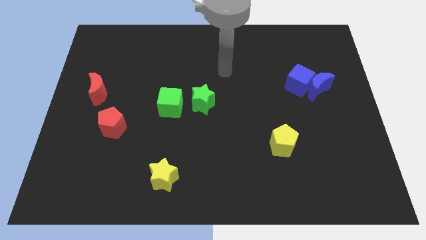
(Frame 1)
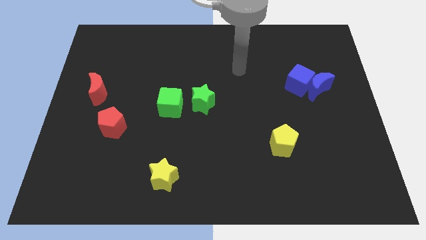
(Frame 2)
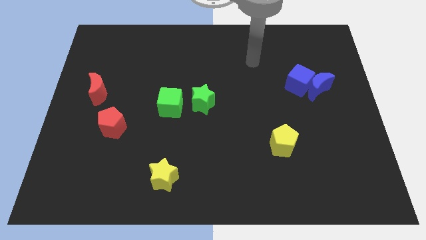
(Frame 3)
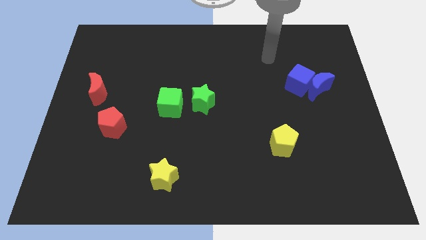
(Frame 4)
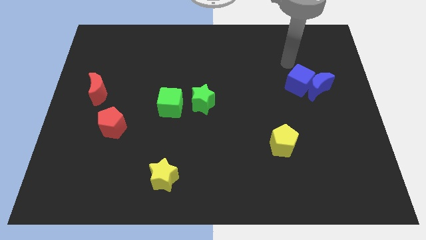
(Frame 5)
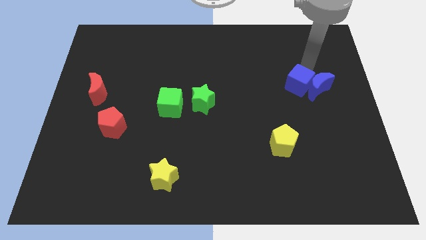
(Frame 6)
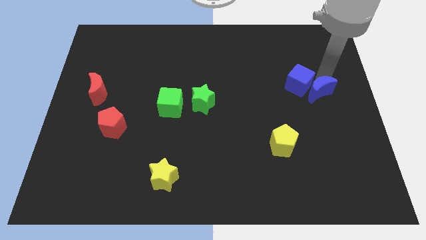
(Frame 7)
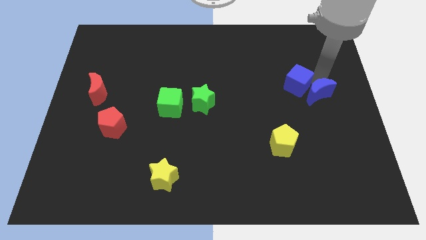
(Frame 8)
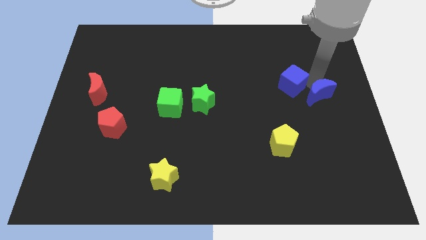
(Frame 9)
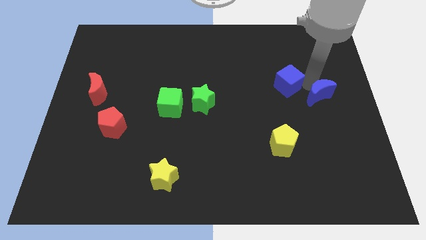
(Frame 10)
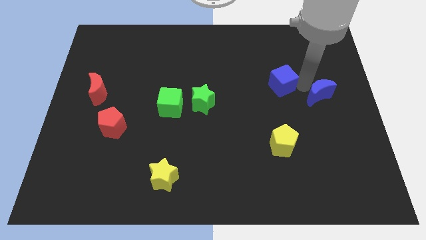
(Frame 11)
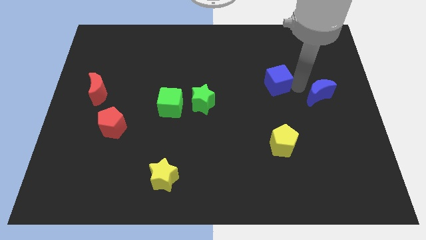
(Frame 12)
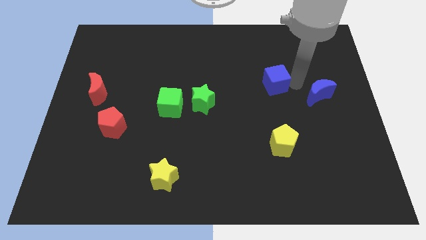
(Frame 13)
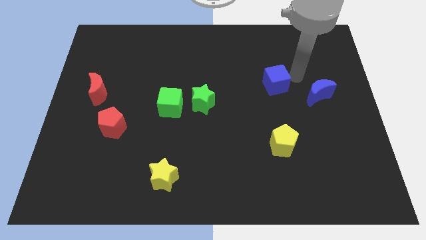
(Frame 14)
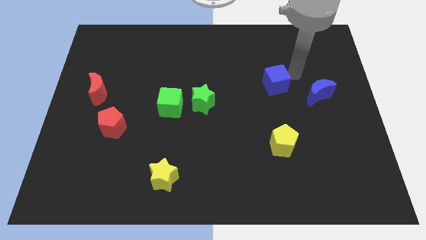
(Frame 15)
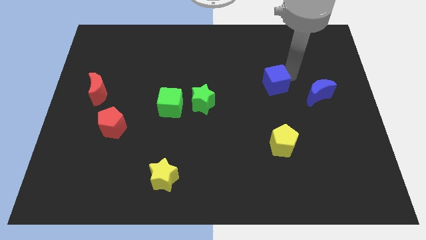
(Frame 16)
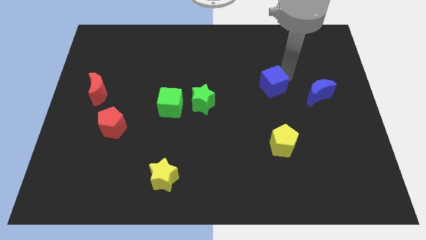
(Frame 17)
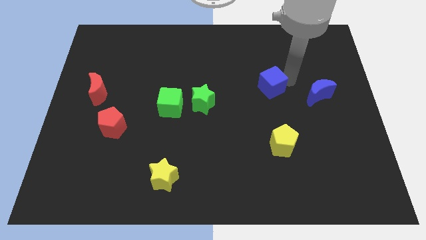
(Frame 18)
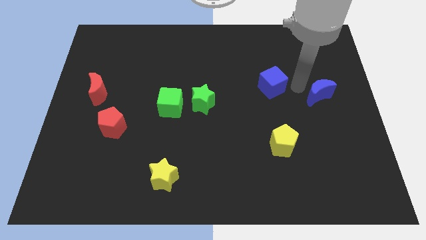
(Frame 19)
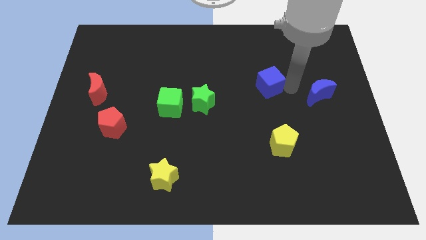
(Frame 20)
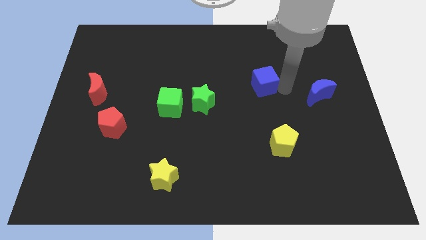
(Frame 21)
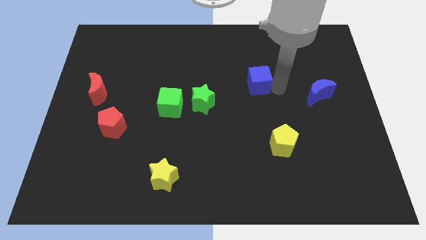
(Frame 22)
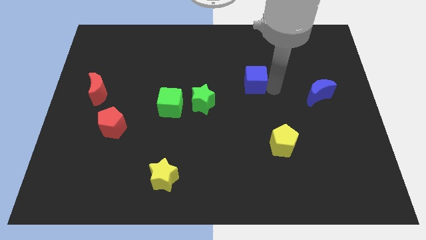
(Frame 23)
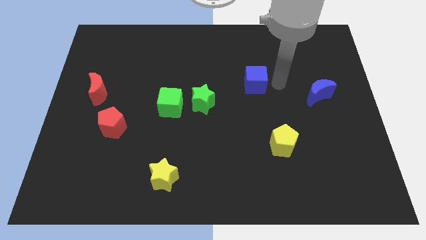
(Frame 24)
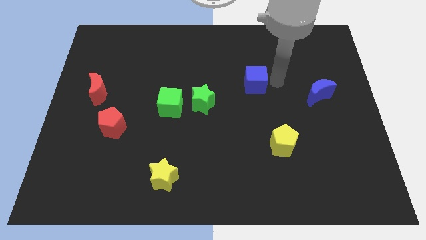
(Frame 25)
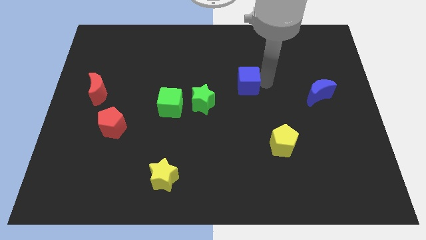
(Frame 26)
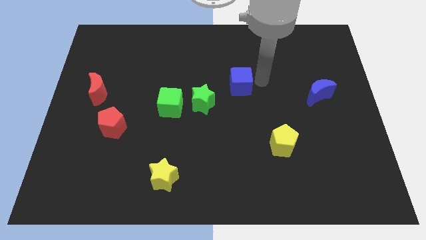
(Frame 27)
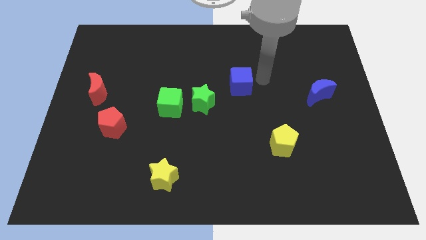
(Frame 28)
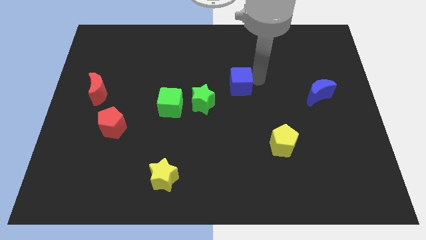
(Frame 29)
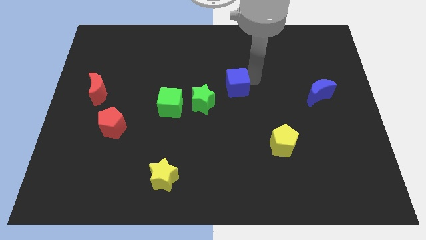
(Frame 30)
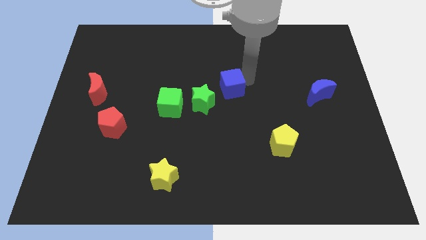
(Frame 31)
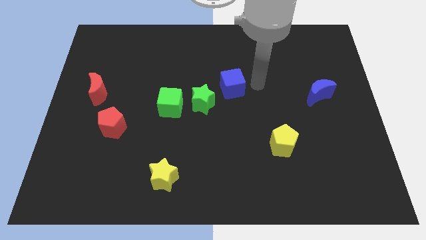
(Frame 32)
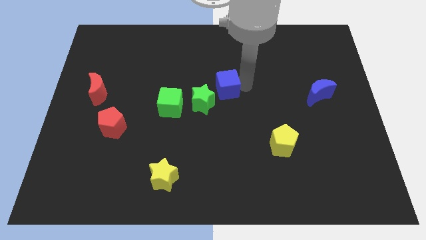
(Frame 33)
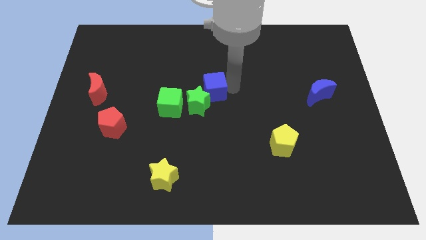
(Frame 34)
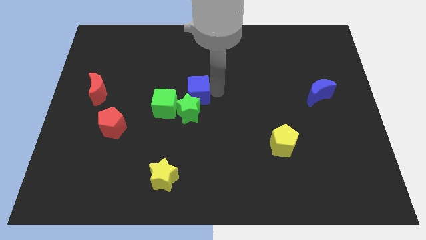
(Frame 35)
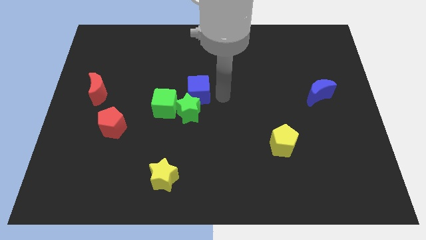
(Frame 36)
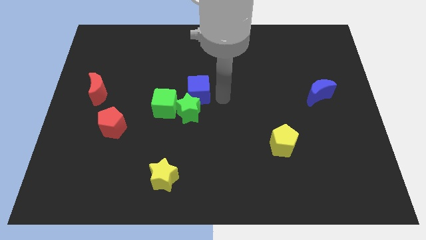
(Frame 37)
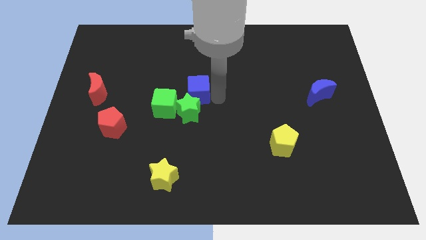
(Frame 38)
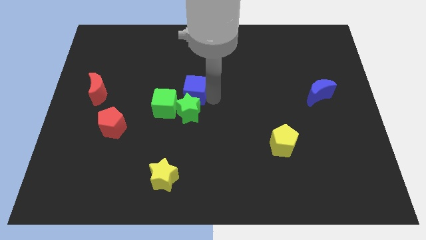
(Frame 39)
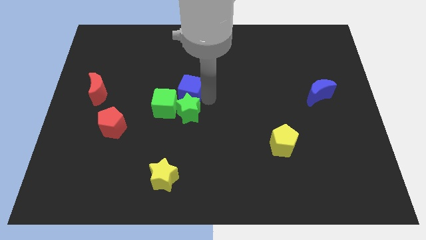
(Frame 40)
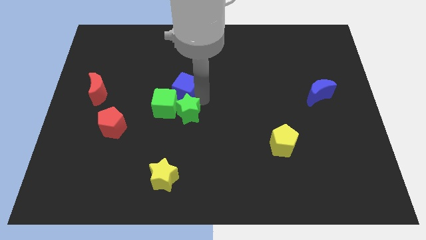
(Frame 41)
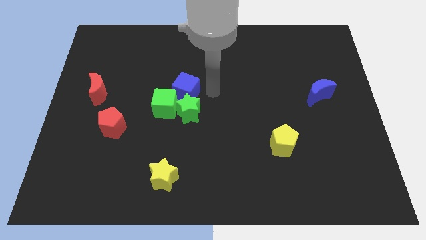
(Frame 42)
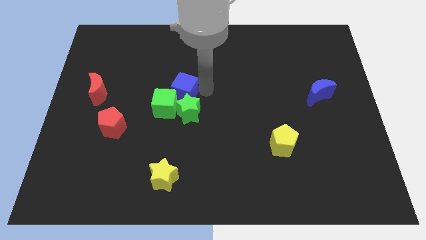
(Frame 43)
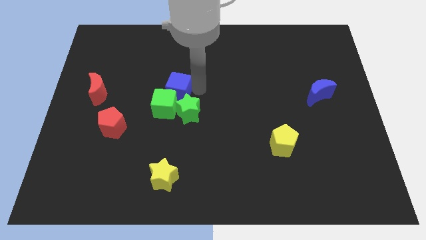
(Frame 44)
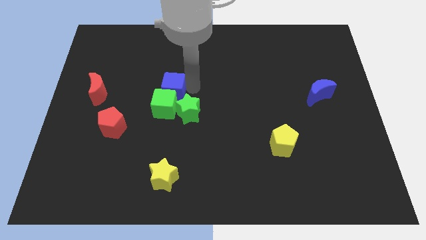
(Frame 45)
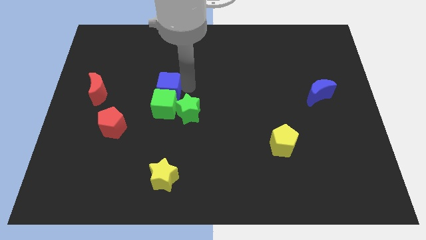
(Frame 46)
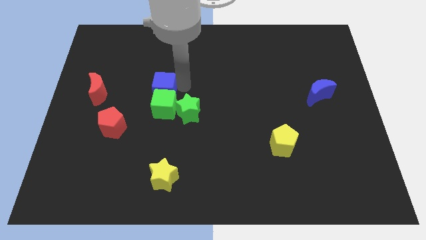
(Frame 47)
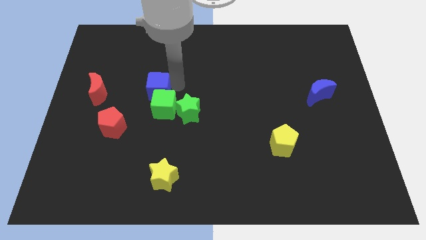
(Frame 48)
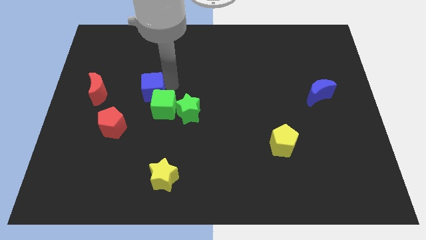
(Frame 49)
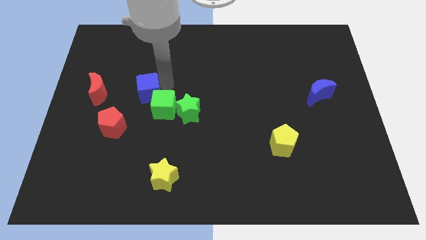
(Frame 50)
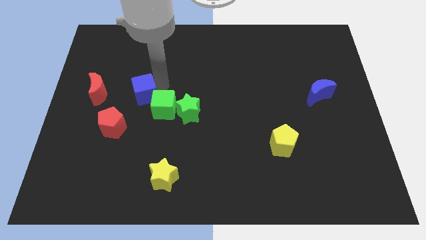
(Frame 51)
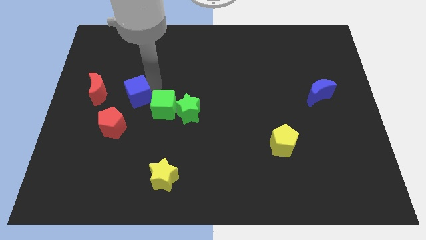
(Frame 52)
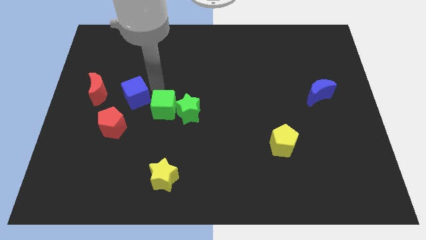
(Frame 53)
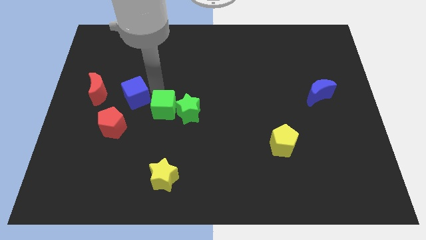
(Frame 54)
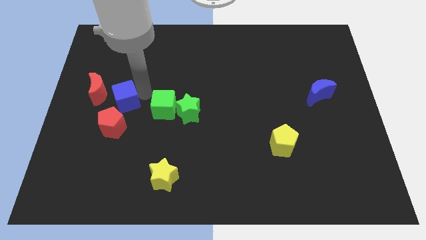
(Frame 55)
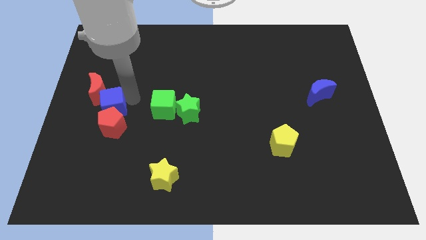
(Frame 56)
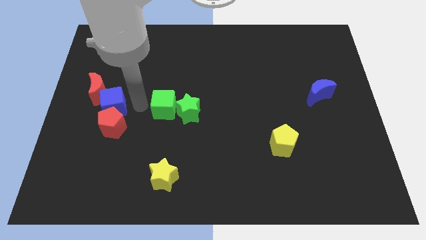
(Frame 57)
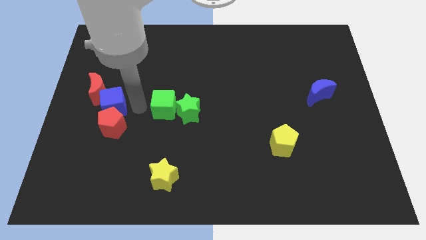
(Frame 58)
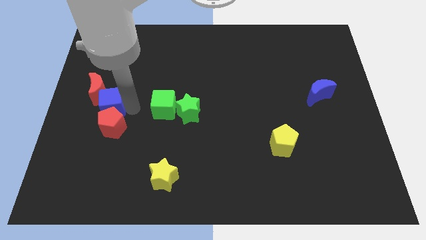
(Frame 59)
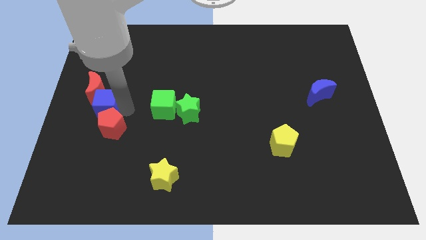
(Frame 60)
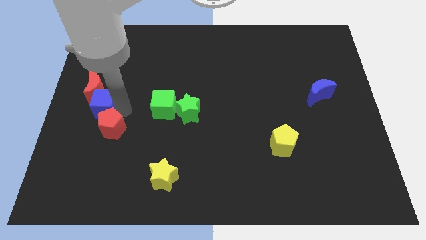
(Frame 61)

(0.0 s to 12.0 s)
push the blue cube to the left side
